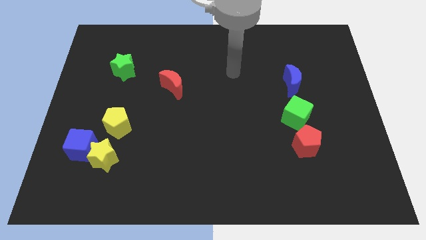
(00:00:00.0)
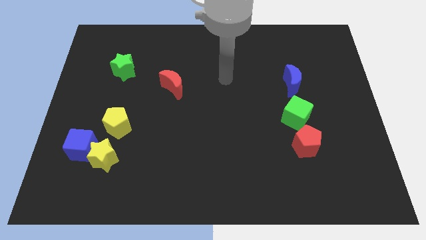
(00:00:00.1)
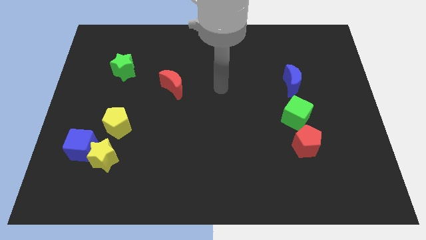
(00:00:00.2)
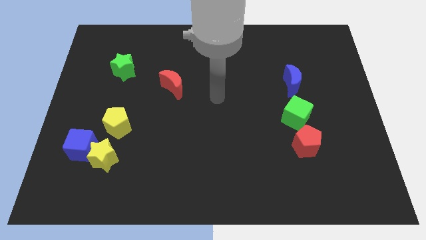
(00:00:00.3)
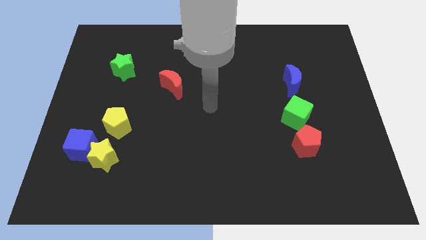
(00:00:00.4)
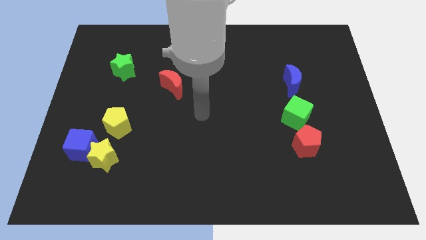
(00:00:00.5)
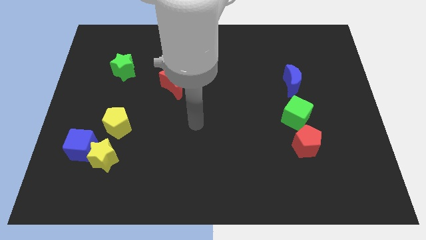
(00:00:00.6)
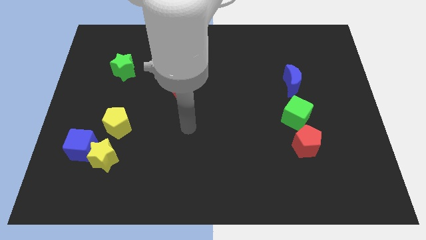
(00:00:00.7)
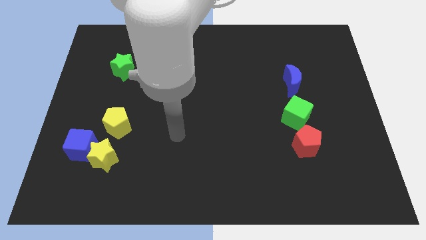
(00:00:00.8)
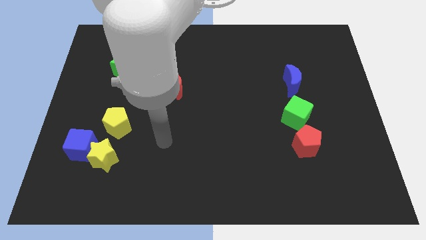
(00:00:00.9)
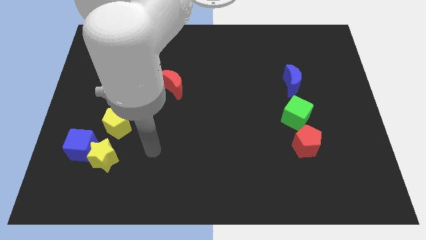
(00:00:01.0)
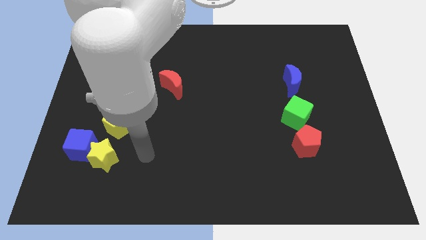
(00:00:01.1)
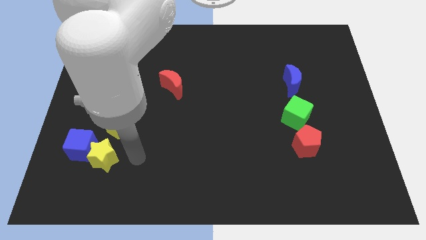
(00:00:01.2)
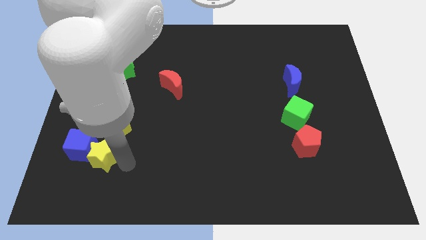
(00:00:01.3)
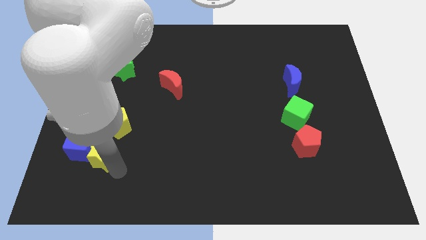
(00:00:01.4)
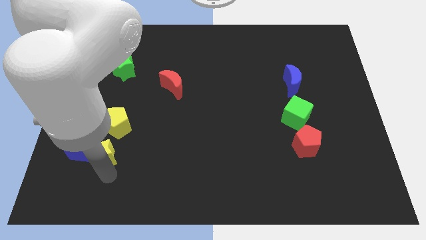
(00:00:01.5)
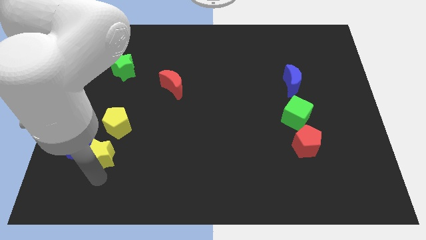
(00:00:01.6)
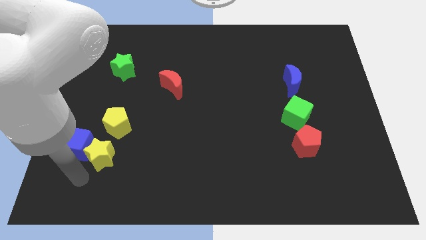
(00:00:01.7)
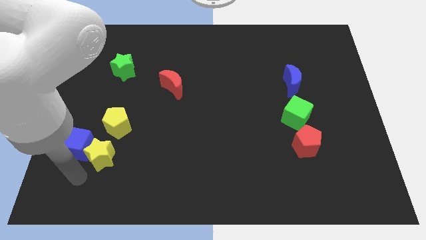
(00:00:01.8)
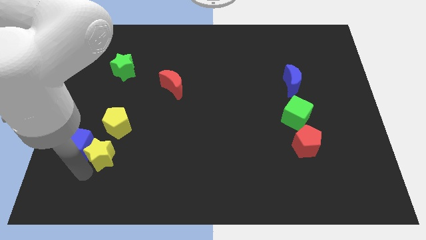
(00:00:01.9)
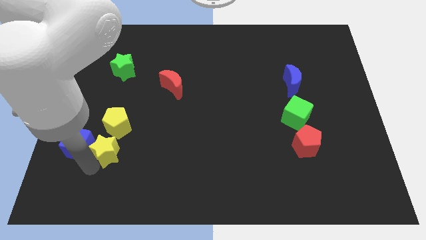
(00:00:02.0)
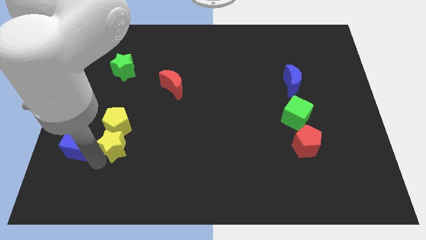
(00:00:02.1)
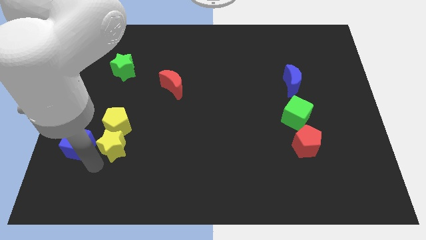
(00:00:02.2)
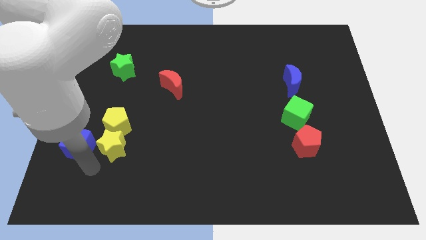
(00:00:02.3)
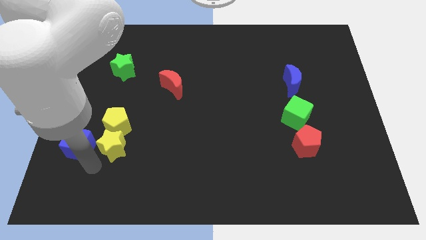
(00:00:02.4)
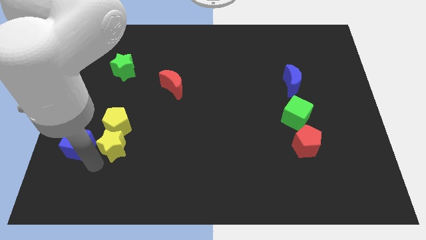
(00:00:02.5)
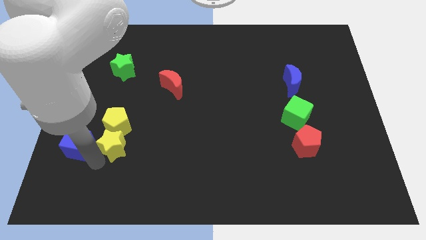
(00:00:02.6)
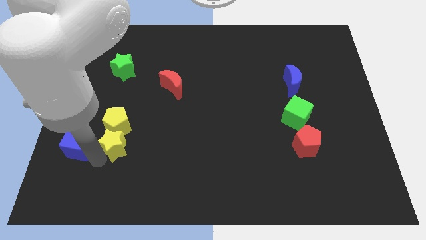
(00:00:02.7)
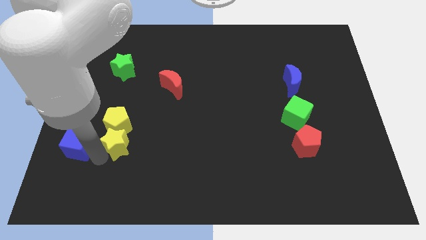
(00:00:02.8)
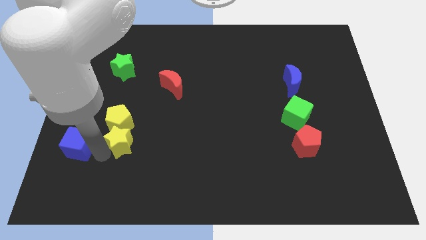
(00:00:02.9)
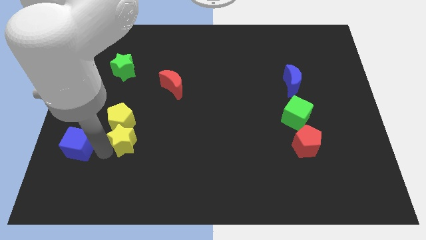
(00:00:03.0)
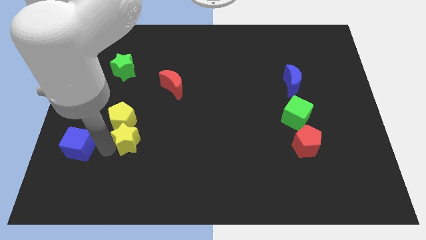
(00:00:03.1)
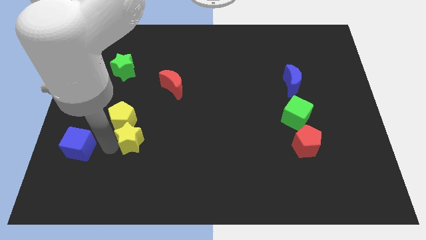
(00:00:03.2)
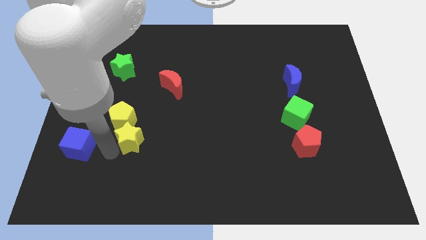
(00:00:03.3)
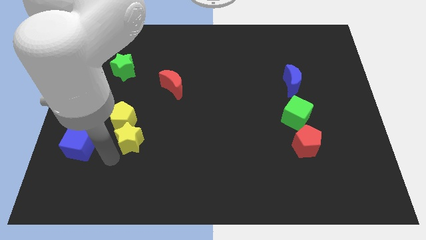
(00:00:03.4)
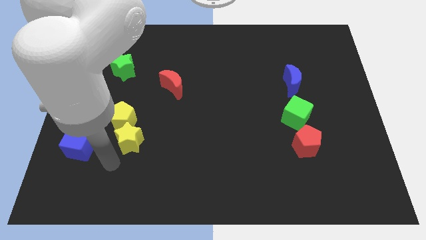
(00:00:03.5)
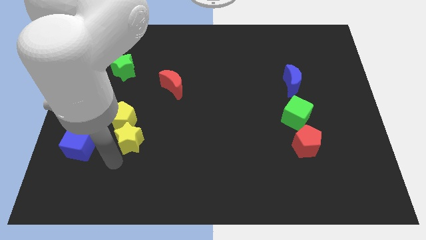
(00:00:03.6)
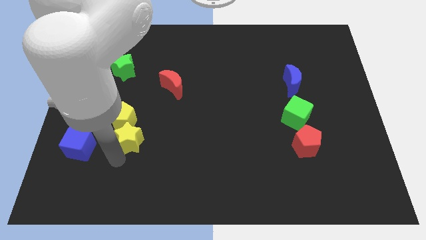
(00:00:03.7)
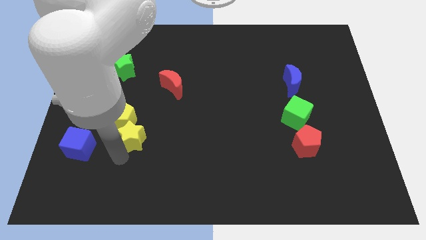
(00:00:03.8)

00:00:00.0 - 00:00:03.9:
slightly move the yellow star upwards and right diagonally

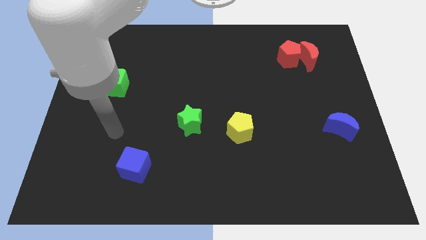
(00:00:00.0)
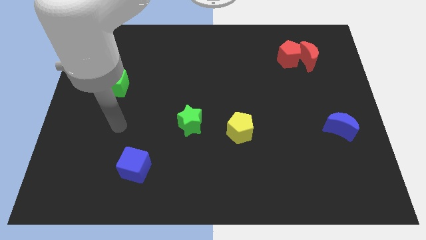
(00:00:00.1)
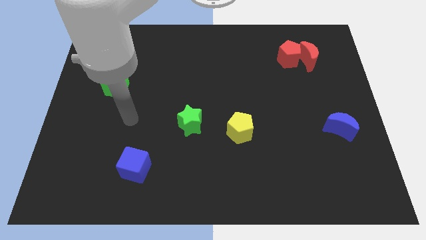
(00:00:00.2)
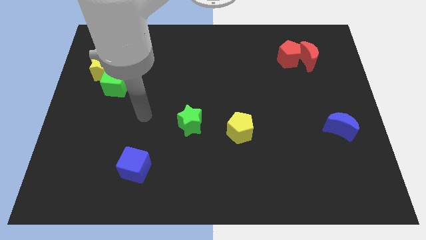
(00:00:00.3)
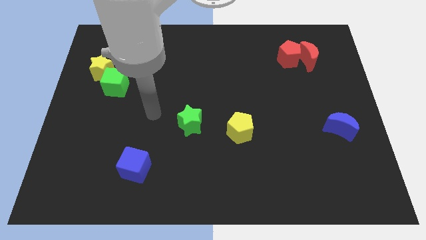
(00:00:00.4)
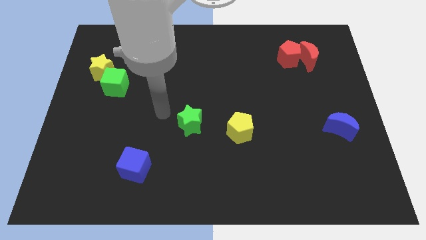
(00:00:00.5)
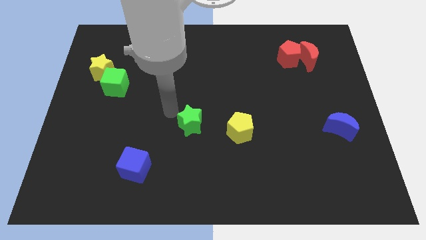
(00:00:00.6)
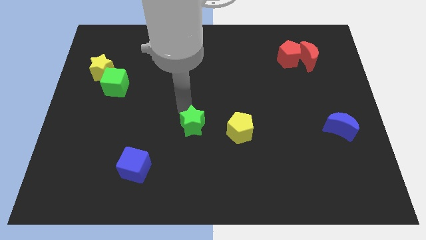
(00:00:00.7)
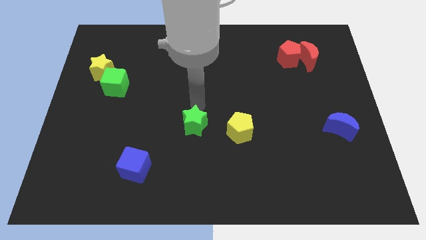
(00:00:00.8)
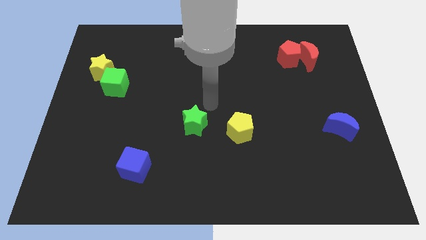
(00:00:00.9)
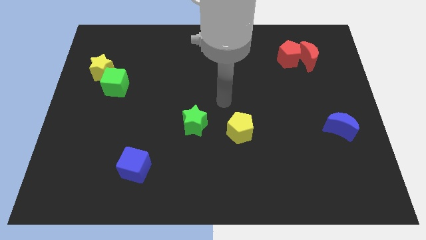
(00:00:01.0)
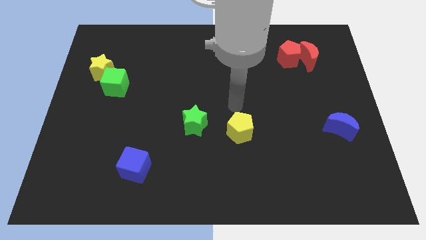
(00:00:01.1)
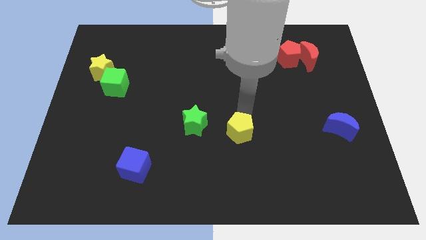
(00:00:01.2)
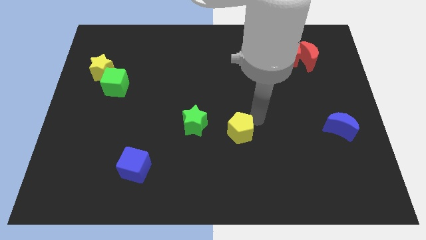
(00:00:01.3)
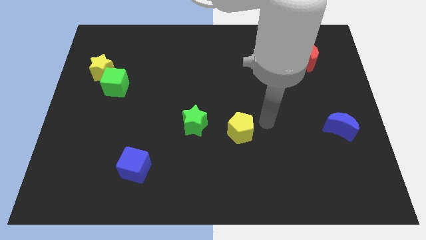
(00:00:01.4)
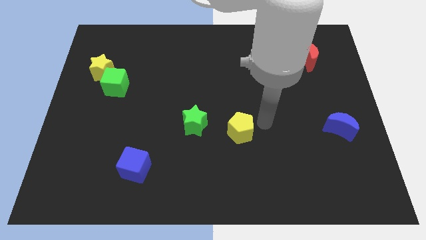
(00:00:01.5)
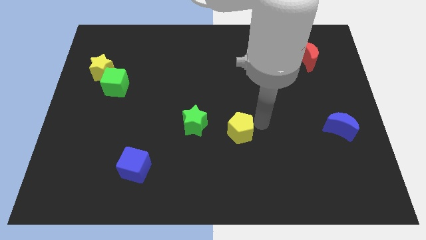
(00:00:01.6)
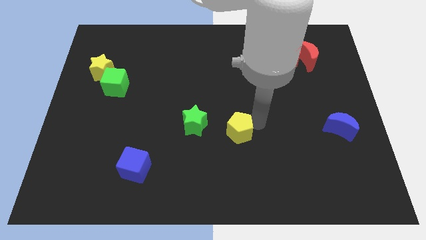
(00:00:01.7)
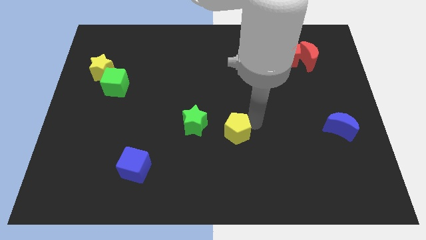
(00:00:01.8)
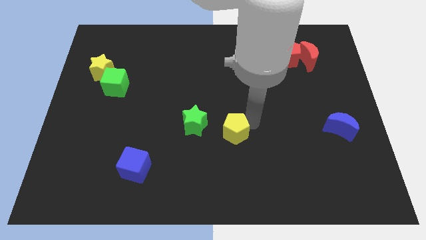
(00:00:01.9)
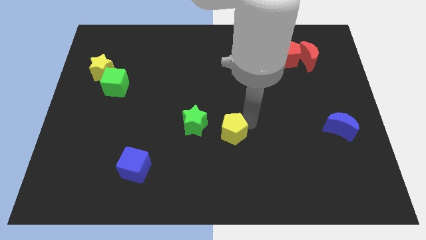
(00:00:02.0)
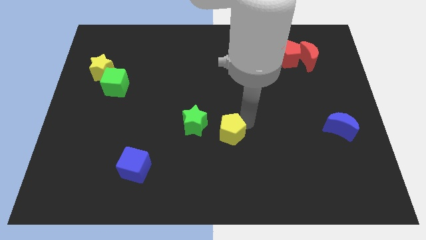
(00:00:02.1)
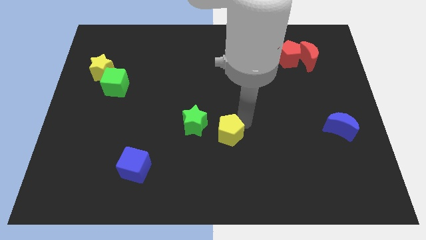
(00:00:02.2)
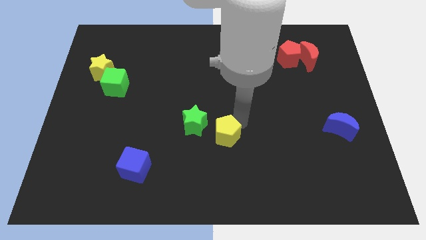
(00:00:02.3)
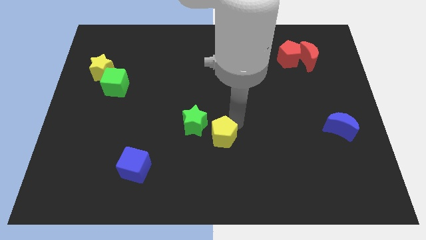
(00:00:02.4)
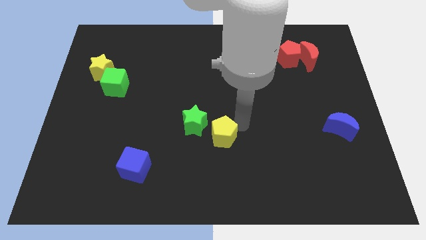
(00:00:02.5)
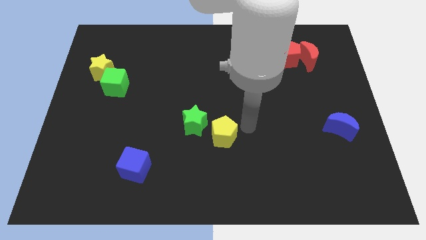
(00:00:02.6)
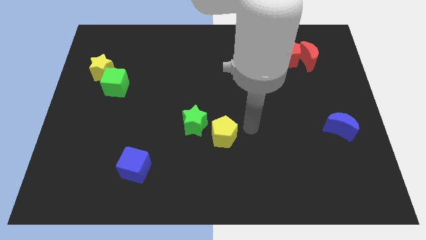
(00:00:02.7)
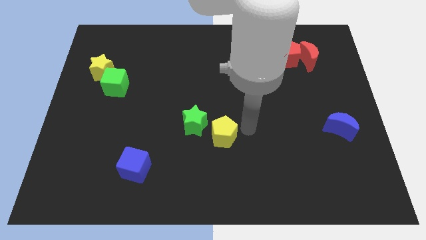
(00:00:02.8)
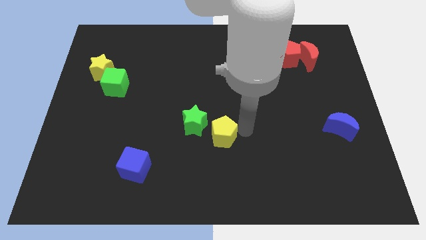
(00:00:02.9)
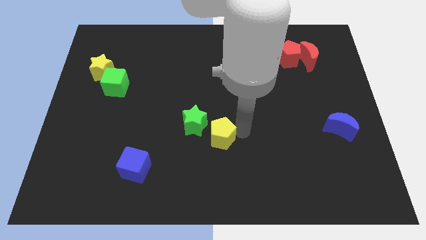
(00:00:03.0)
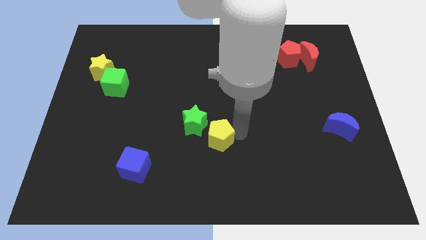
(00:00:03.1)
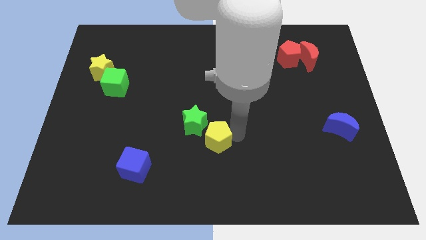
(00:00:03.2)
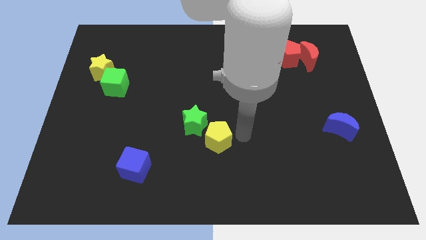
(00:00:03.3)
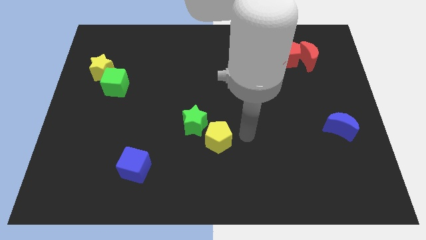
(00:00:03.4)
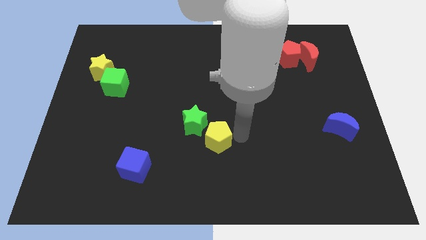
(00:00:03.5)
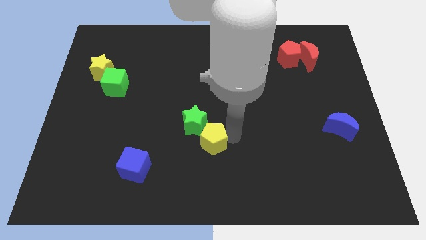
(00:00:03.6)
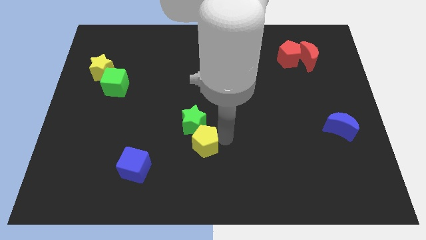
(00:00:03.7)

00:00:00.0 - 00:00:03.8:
slightly push the yellow pentagon to the left
